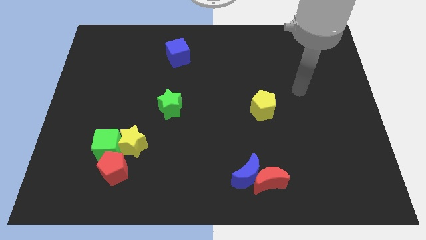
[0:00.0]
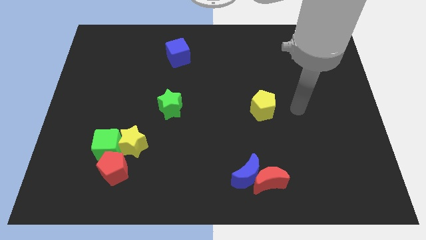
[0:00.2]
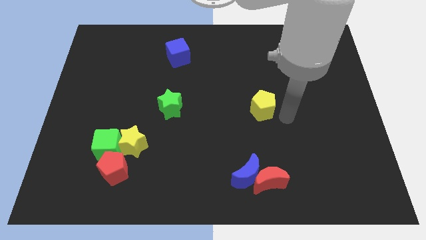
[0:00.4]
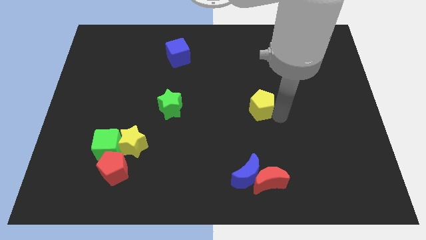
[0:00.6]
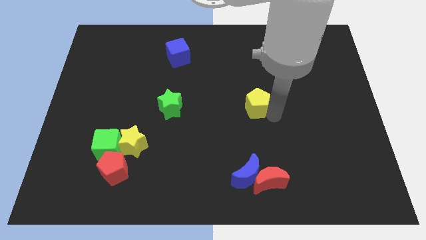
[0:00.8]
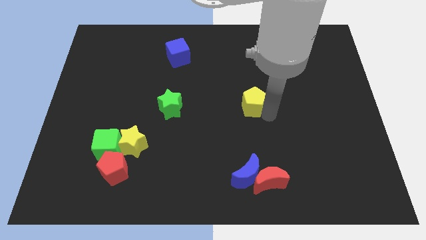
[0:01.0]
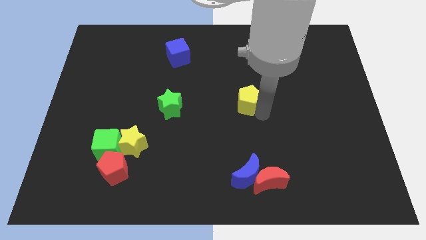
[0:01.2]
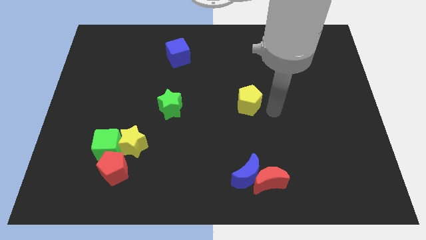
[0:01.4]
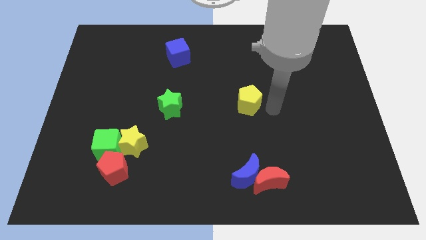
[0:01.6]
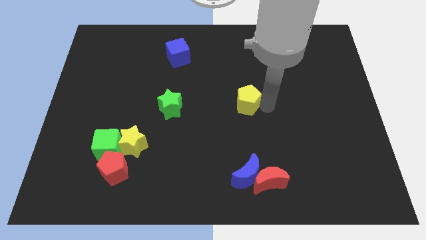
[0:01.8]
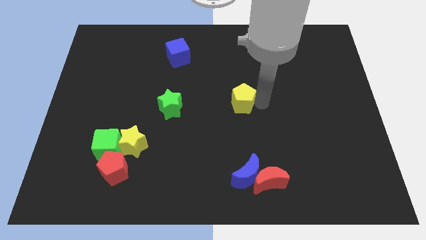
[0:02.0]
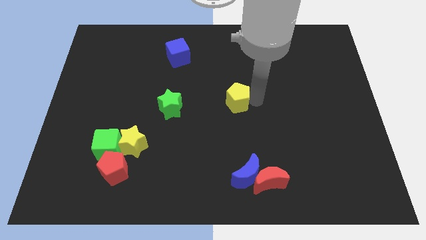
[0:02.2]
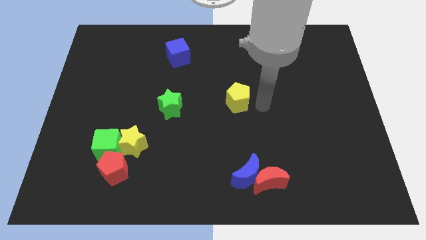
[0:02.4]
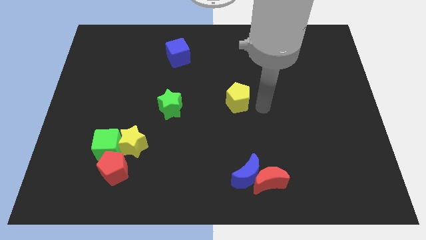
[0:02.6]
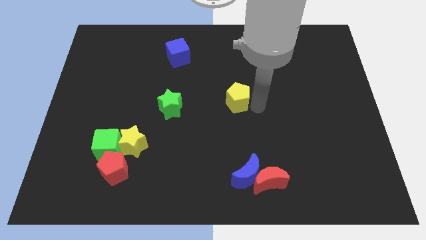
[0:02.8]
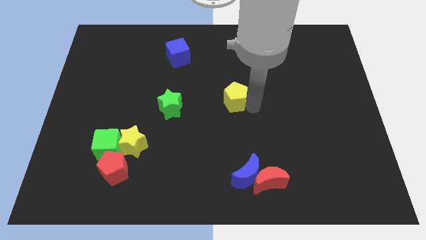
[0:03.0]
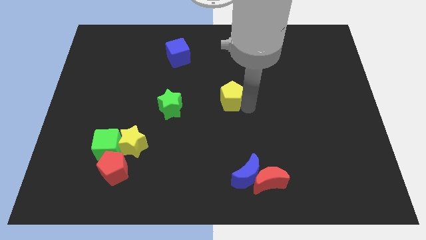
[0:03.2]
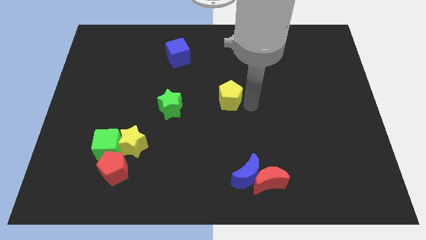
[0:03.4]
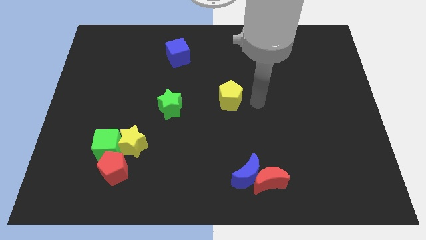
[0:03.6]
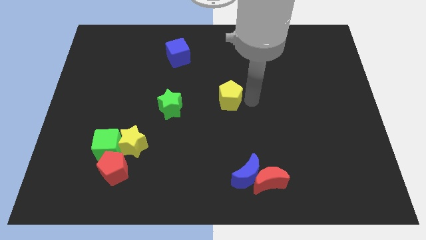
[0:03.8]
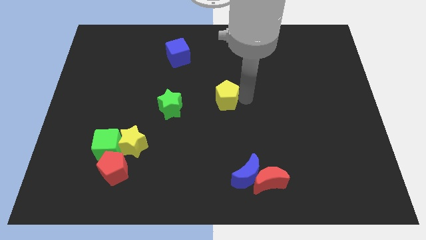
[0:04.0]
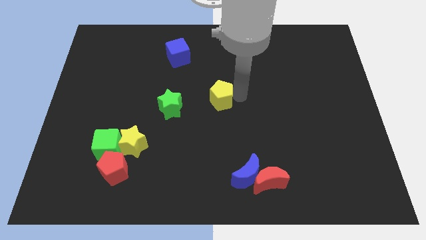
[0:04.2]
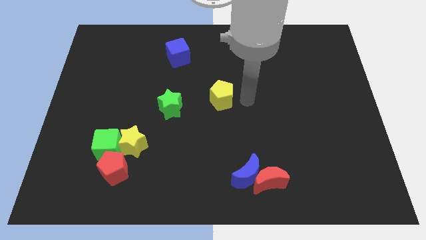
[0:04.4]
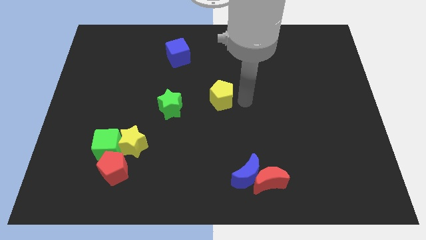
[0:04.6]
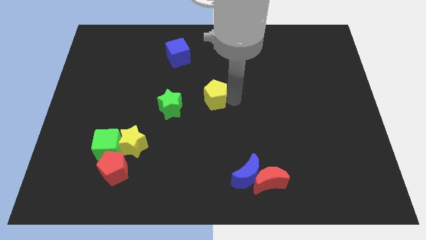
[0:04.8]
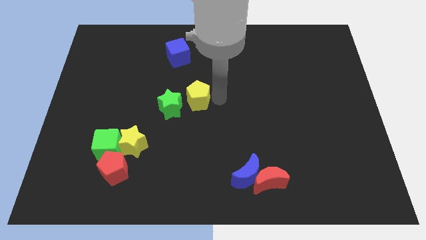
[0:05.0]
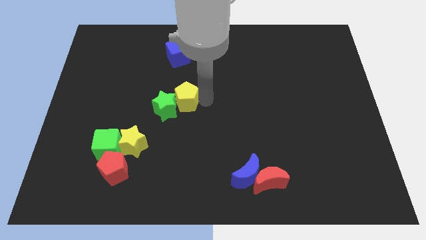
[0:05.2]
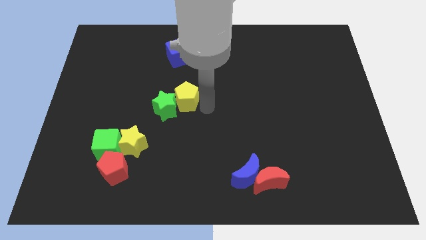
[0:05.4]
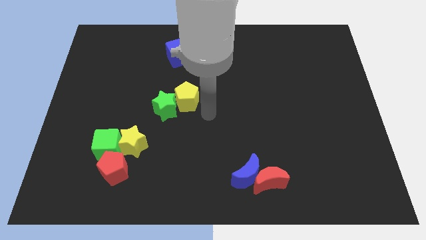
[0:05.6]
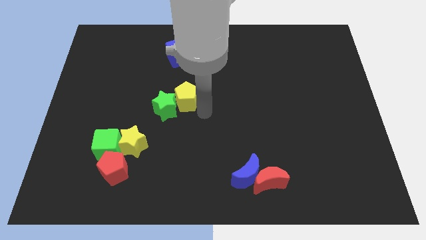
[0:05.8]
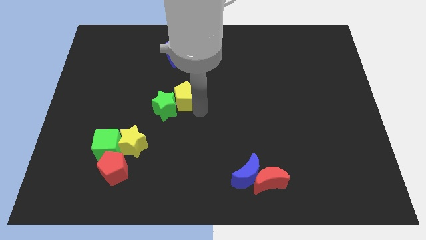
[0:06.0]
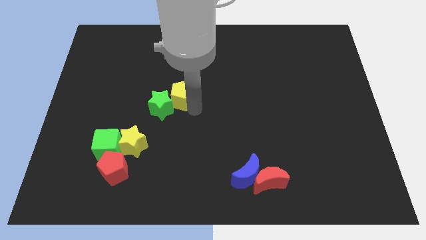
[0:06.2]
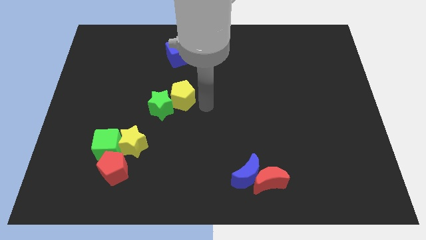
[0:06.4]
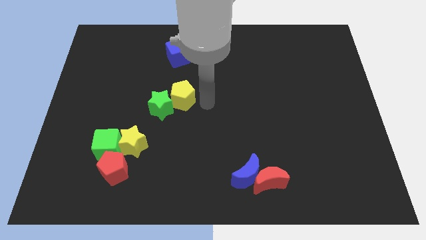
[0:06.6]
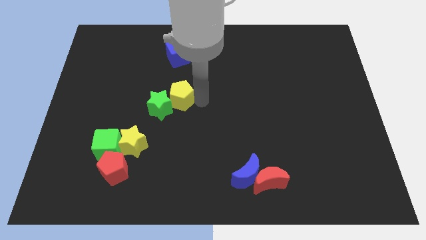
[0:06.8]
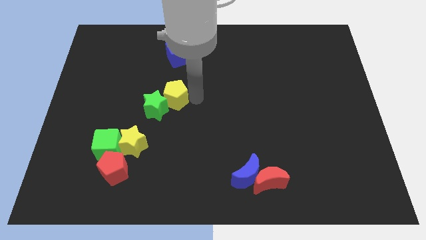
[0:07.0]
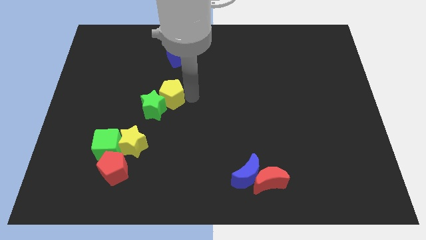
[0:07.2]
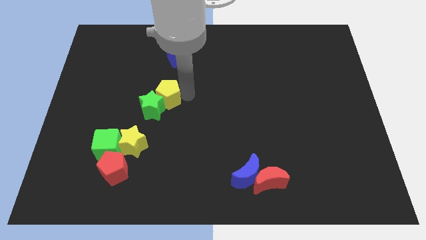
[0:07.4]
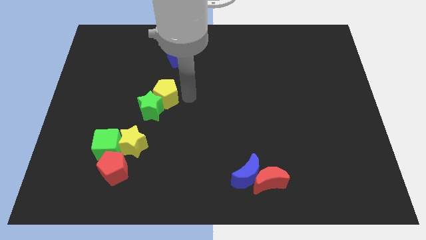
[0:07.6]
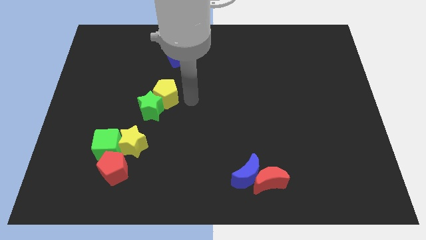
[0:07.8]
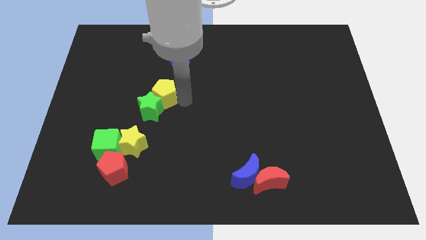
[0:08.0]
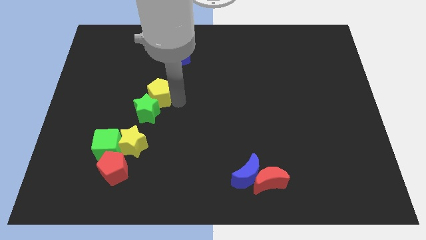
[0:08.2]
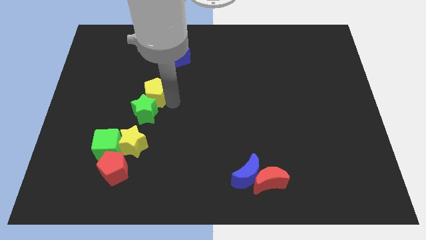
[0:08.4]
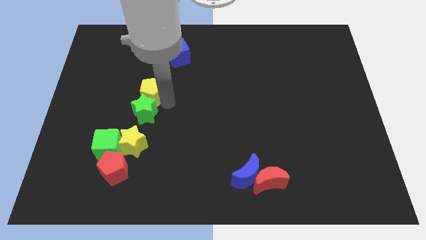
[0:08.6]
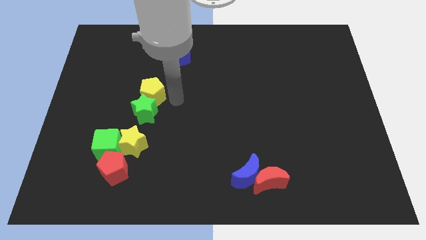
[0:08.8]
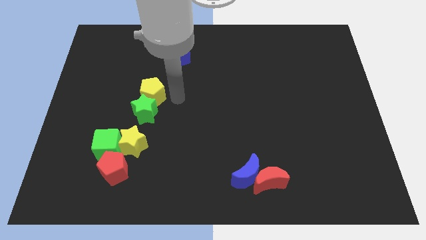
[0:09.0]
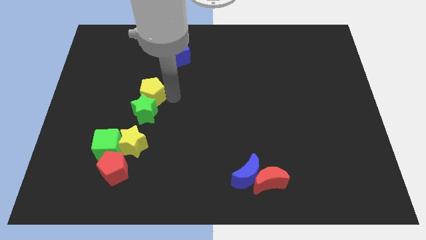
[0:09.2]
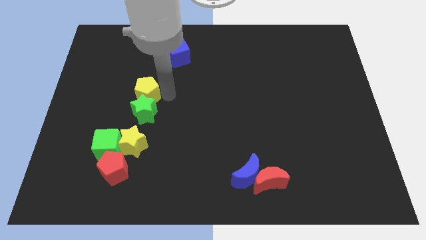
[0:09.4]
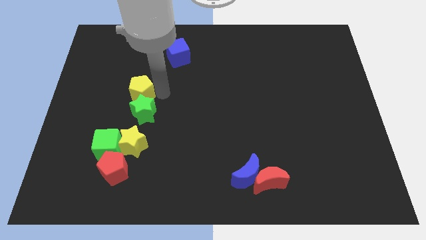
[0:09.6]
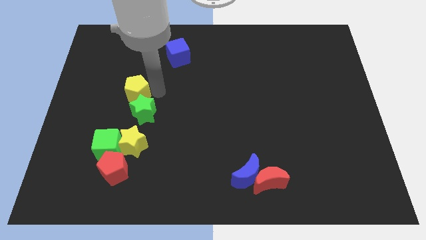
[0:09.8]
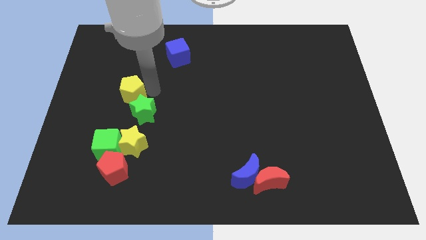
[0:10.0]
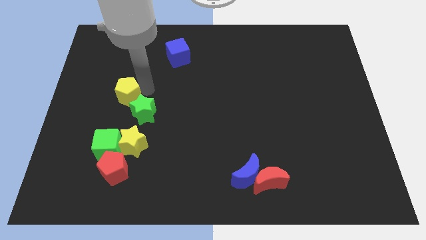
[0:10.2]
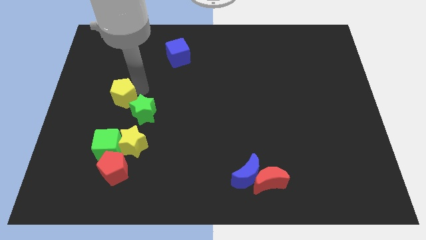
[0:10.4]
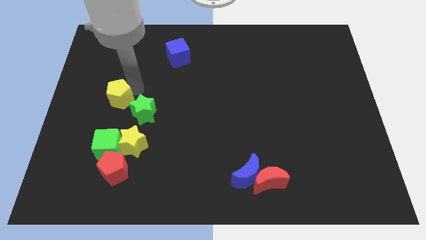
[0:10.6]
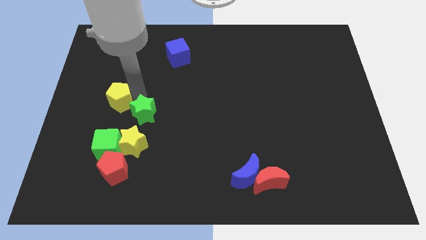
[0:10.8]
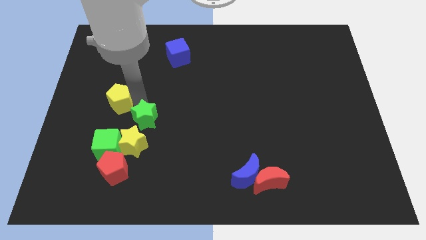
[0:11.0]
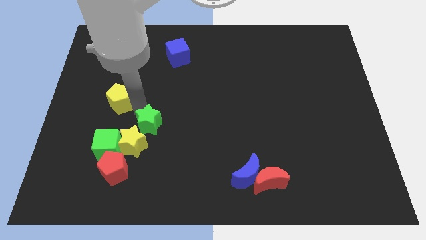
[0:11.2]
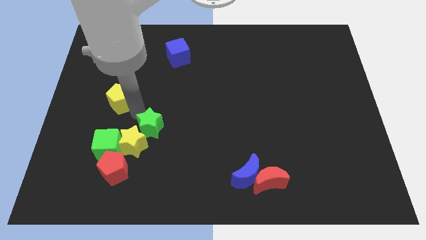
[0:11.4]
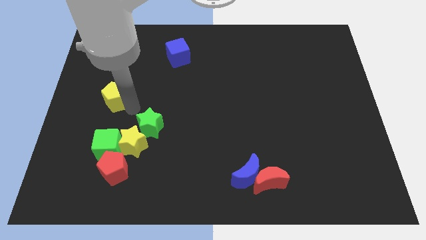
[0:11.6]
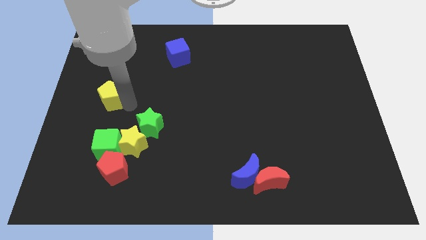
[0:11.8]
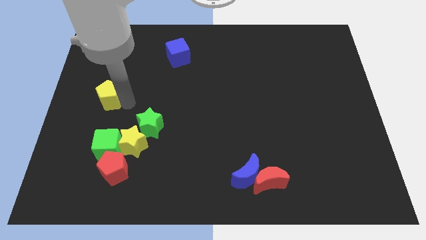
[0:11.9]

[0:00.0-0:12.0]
push the yellow pentagon to the left side of the board
